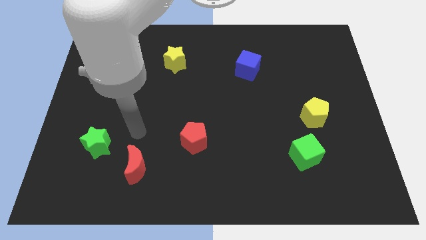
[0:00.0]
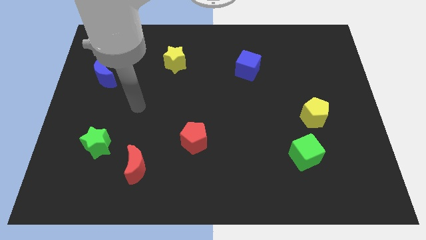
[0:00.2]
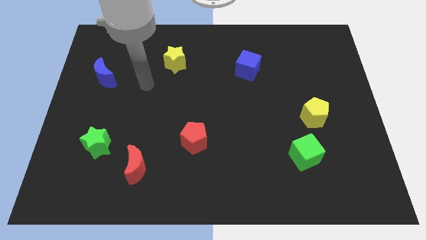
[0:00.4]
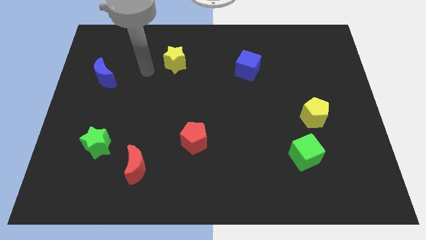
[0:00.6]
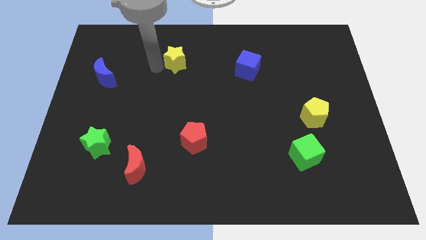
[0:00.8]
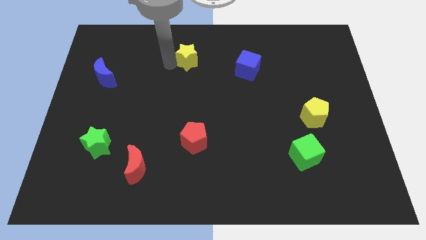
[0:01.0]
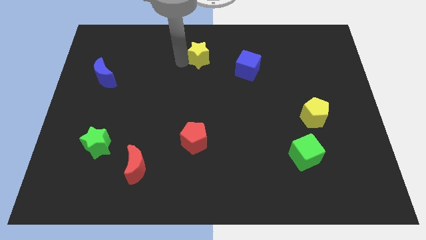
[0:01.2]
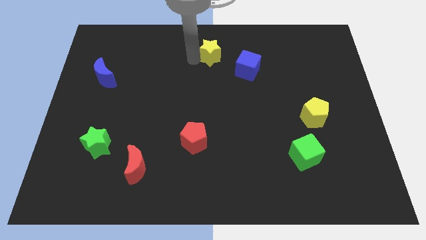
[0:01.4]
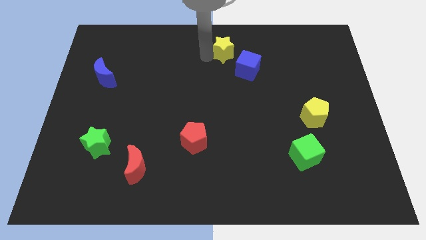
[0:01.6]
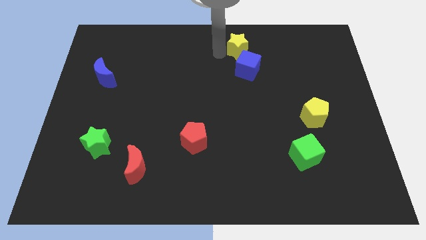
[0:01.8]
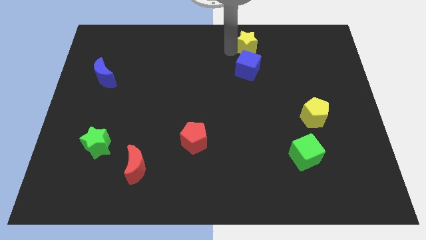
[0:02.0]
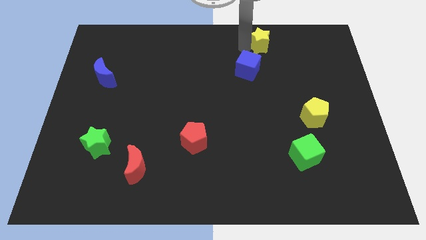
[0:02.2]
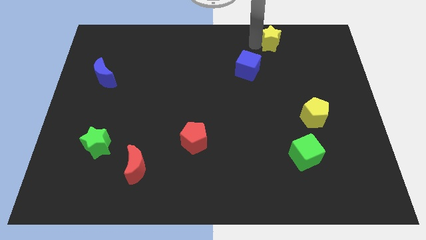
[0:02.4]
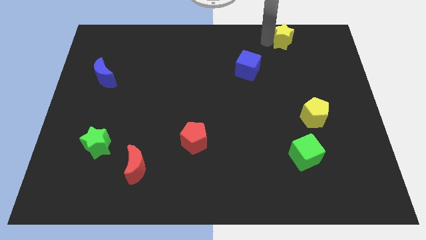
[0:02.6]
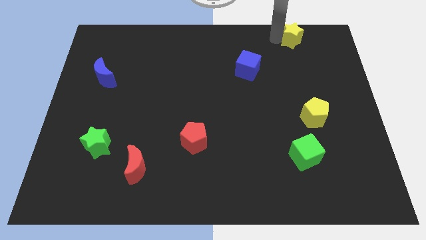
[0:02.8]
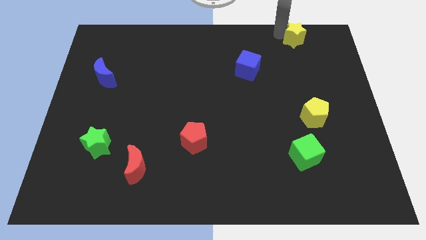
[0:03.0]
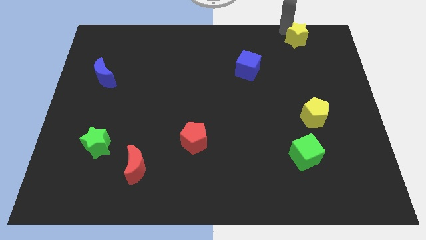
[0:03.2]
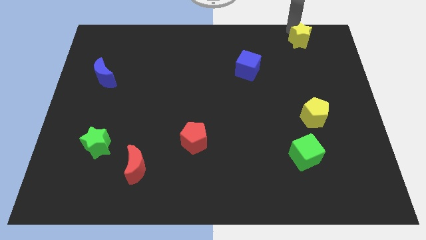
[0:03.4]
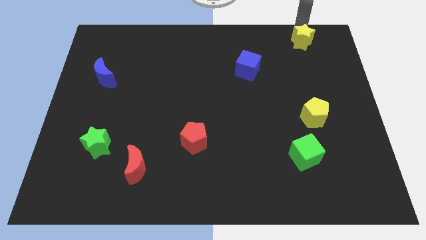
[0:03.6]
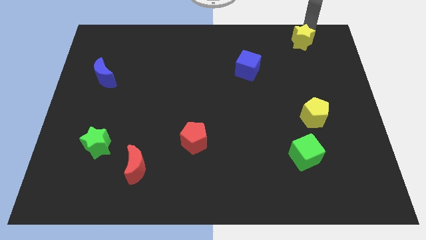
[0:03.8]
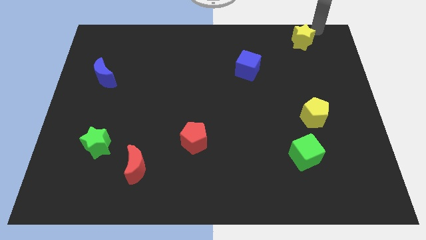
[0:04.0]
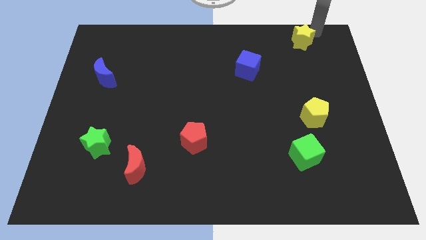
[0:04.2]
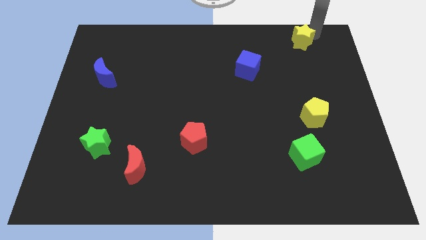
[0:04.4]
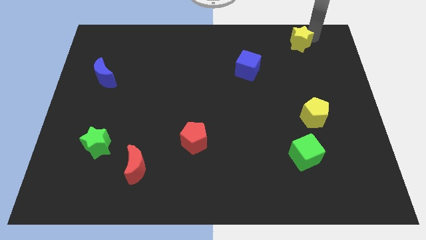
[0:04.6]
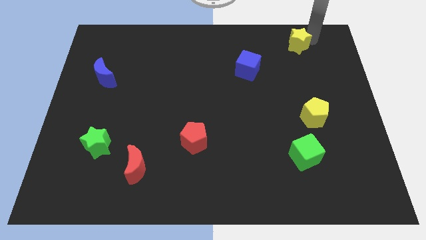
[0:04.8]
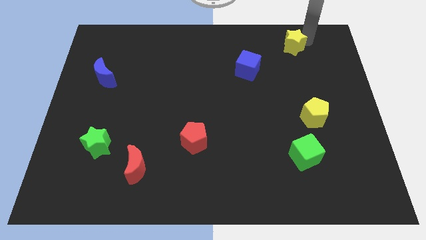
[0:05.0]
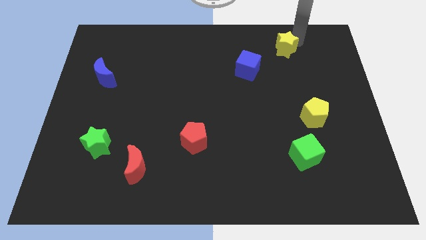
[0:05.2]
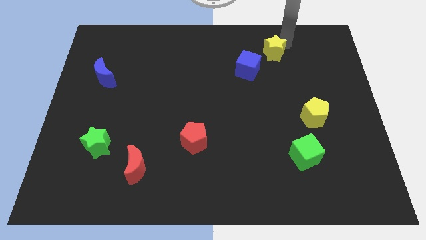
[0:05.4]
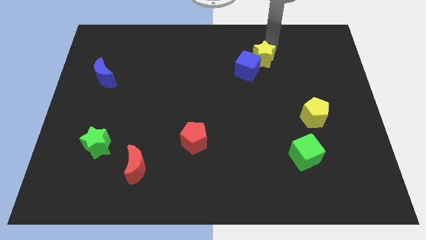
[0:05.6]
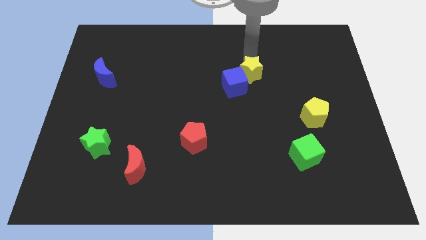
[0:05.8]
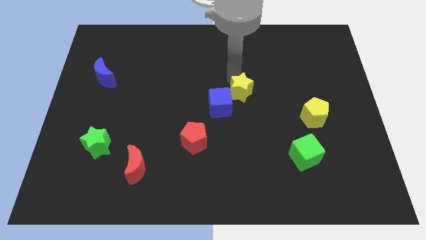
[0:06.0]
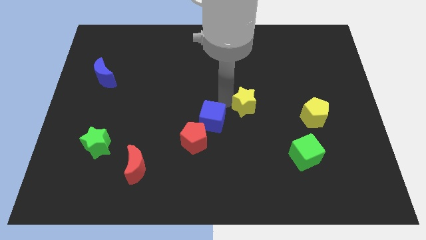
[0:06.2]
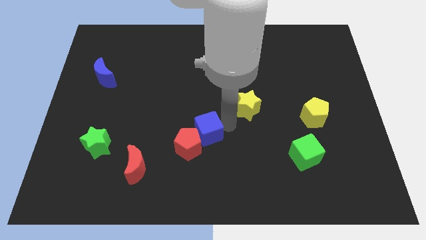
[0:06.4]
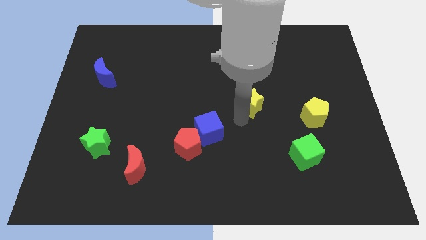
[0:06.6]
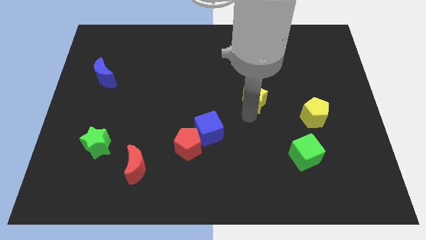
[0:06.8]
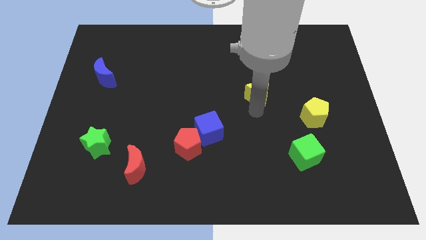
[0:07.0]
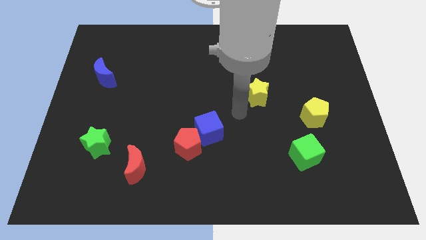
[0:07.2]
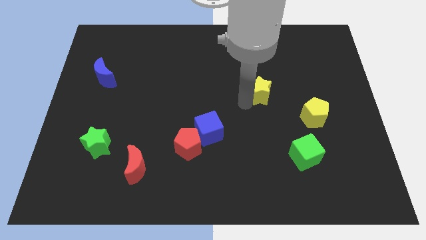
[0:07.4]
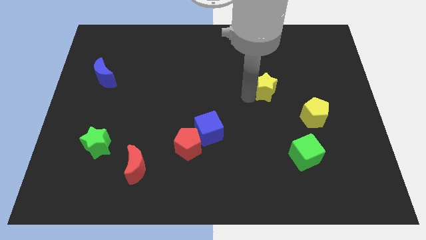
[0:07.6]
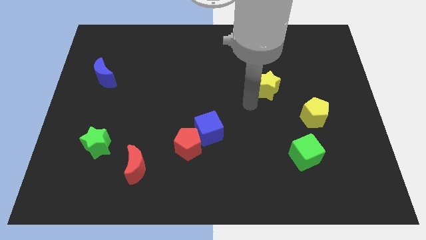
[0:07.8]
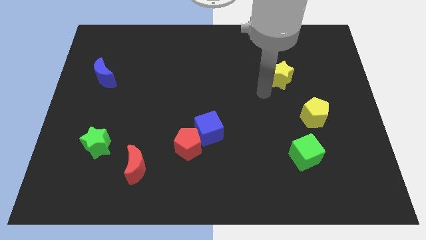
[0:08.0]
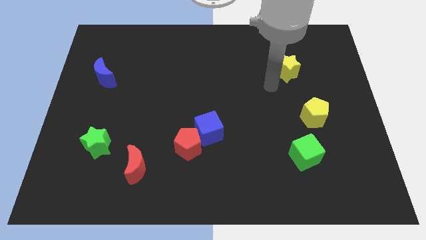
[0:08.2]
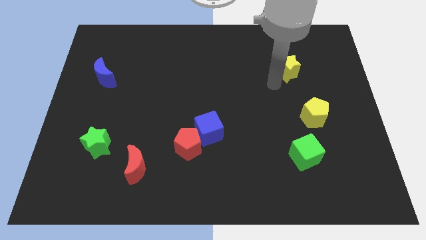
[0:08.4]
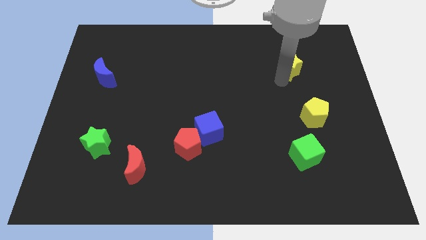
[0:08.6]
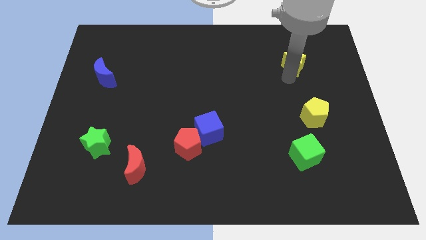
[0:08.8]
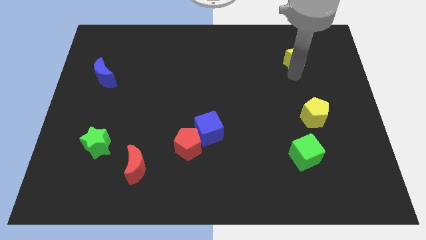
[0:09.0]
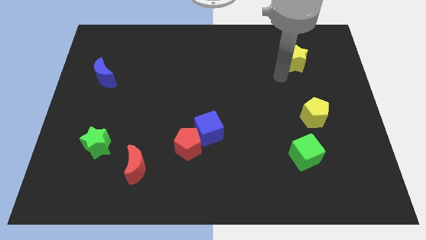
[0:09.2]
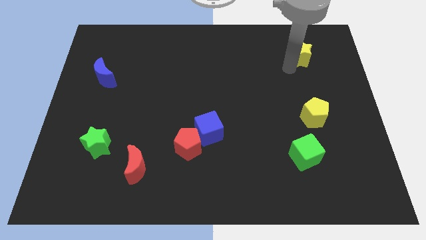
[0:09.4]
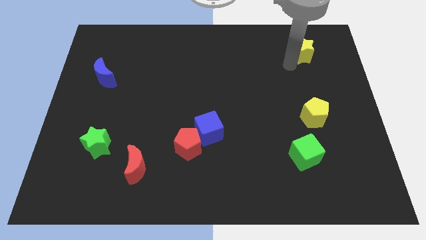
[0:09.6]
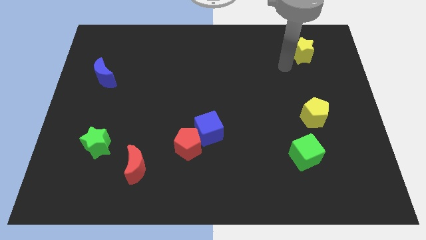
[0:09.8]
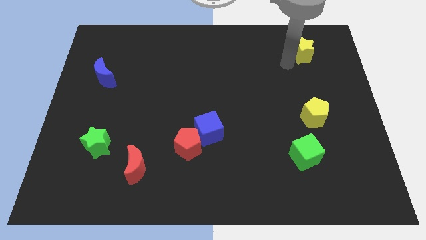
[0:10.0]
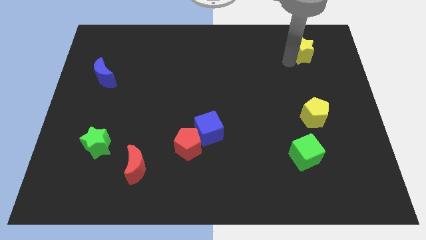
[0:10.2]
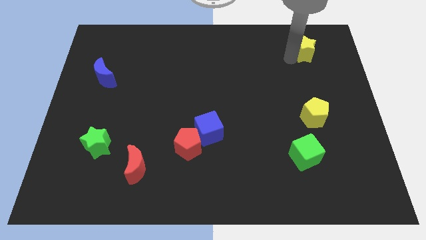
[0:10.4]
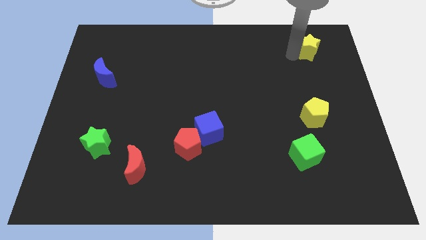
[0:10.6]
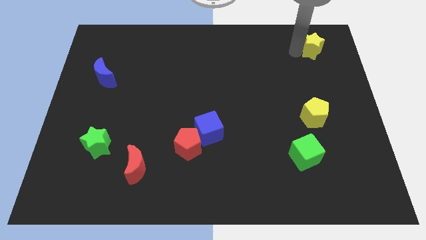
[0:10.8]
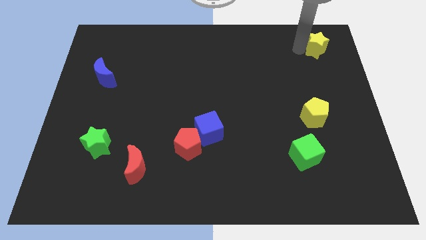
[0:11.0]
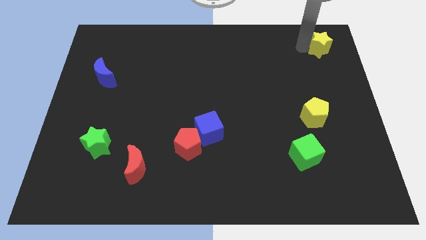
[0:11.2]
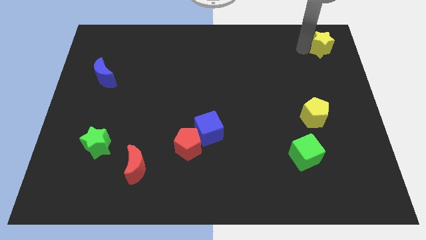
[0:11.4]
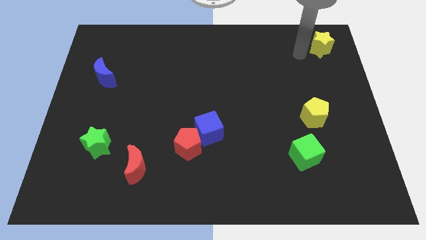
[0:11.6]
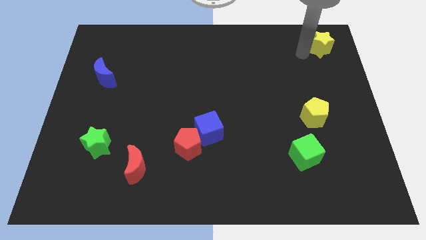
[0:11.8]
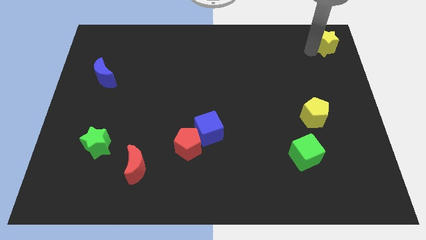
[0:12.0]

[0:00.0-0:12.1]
put the yellow star to the top right
